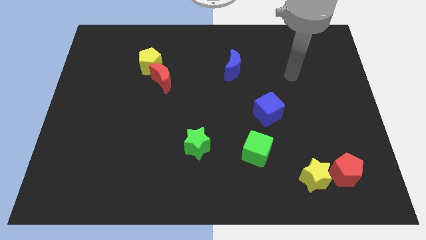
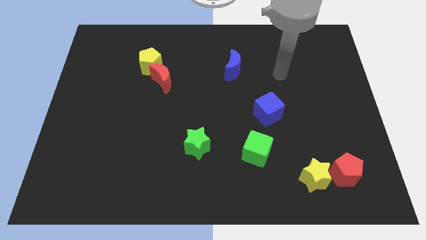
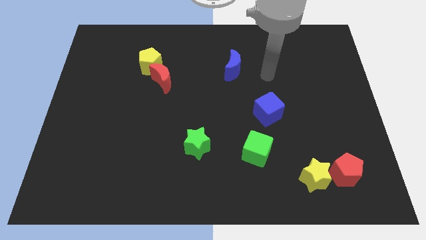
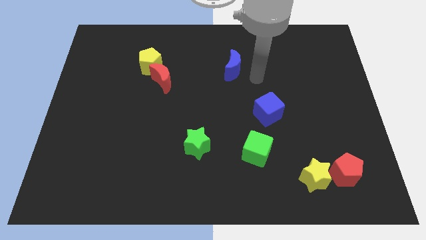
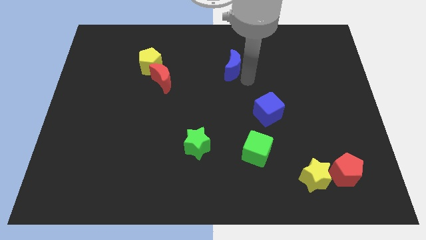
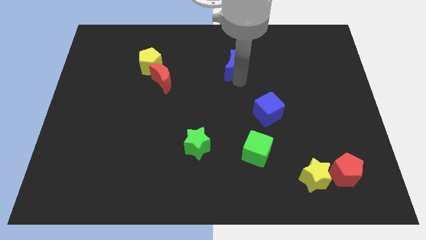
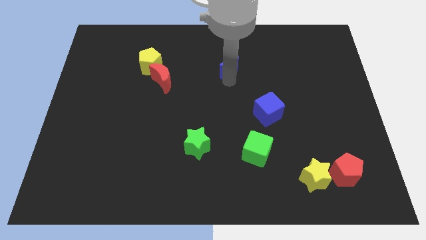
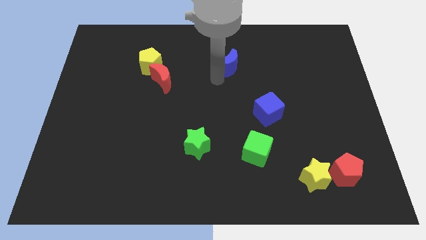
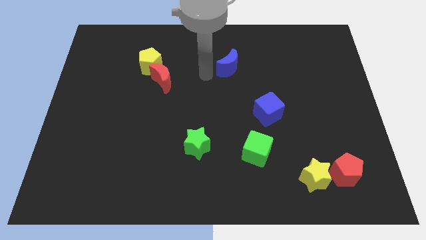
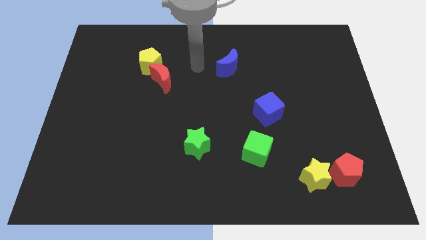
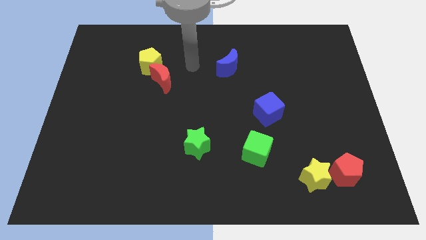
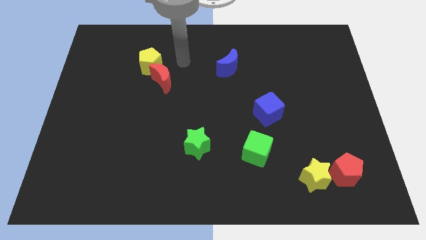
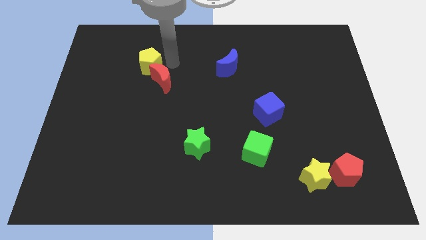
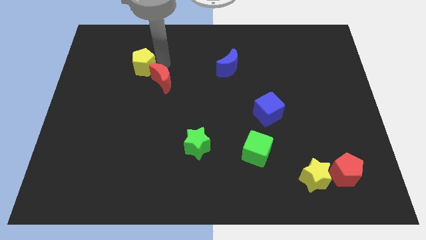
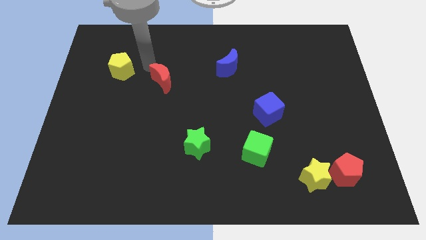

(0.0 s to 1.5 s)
pull the red moon apart from the yellow pentagon

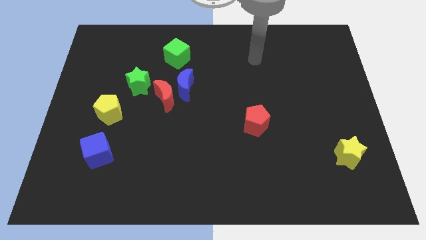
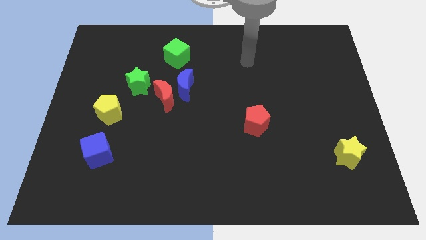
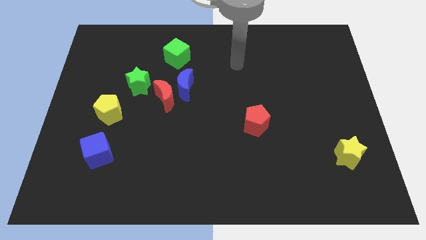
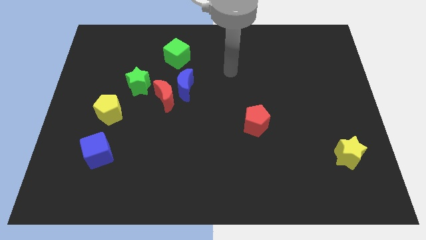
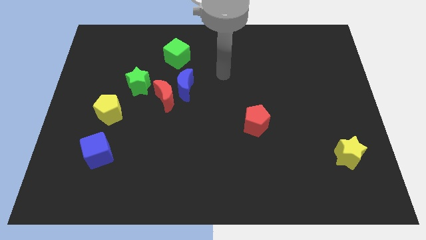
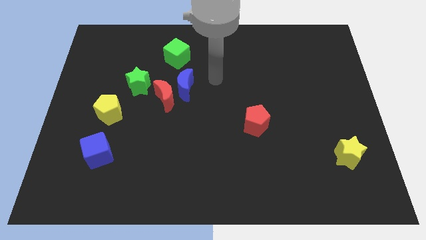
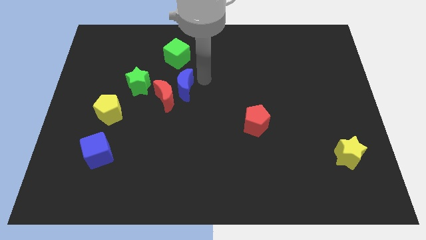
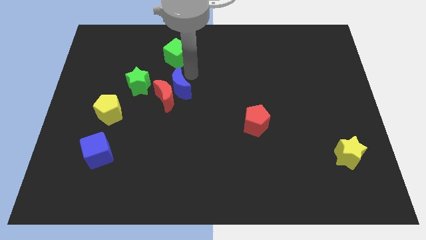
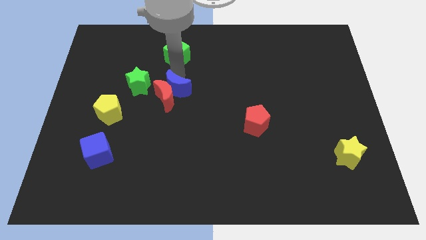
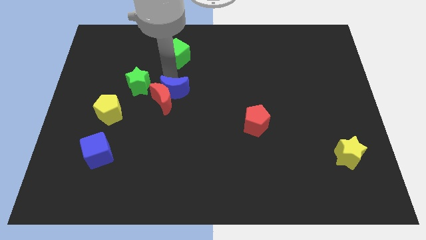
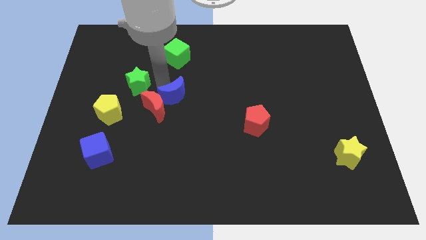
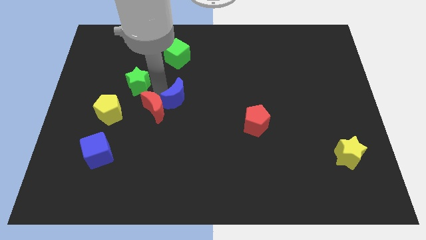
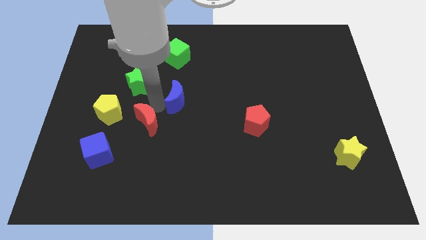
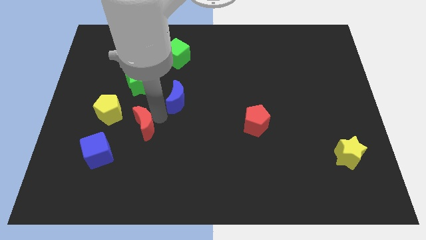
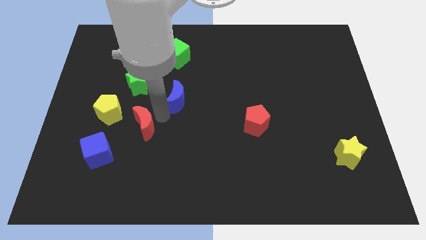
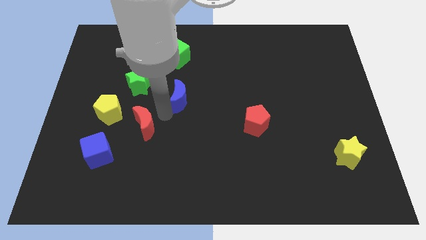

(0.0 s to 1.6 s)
move the blue moon away from the red moon

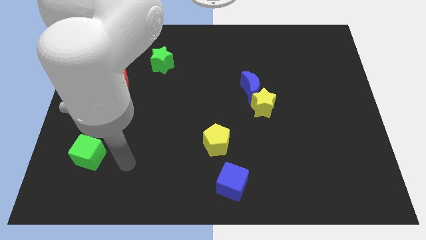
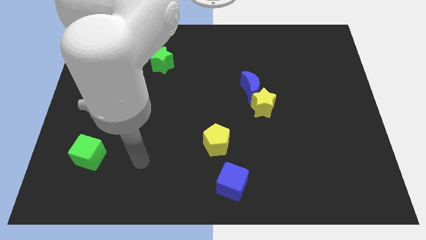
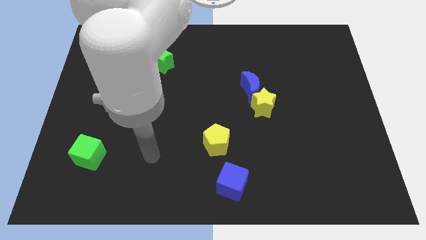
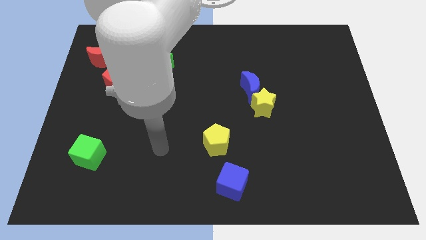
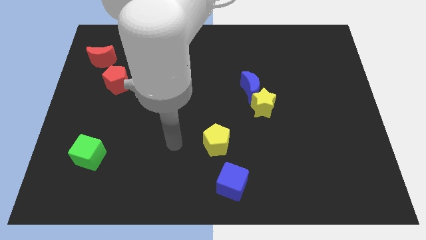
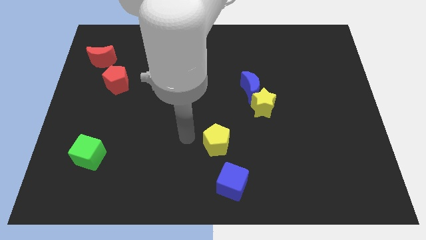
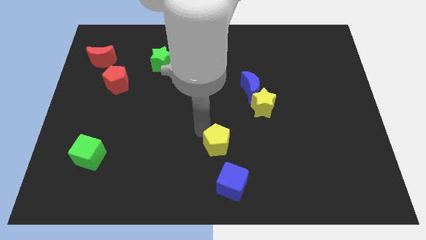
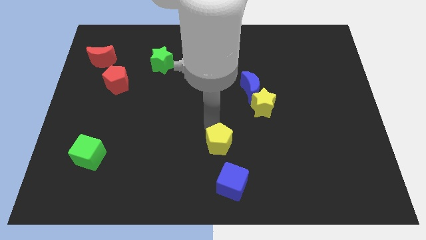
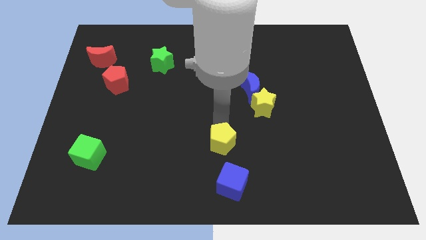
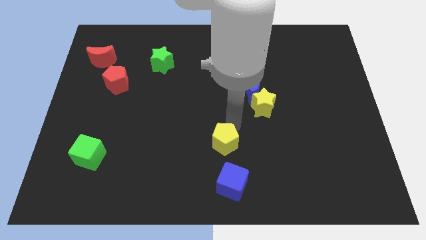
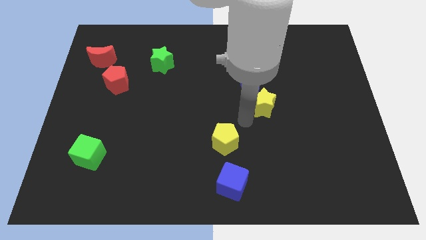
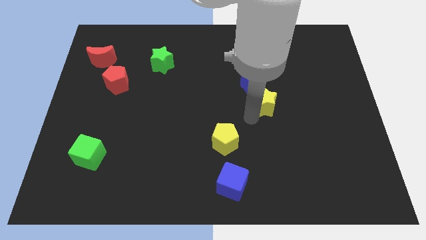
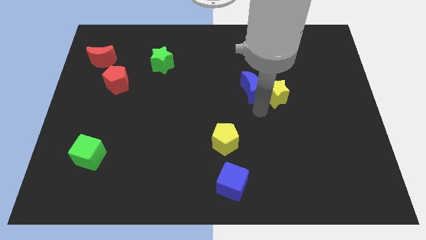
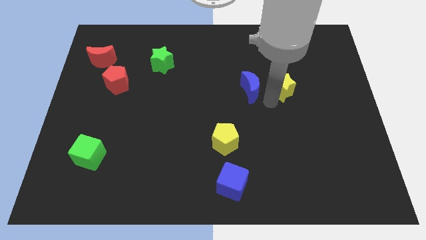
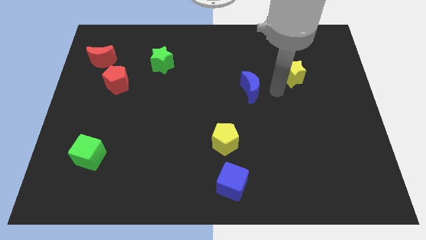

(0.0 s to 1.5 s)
pull the blue moon apart from the yellow star

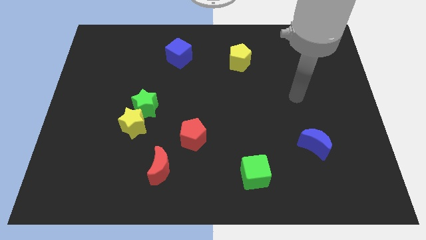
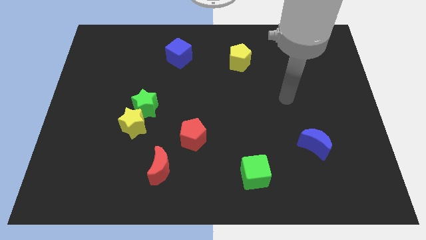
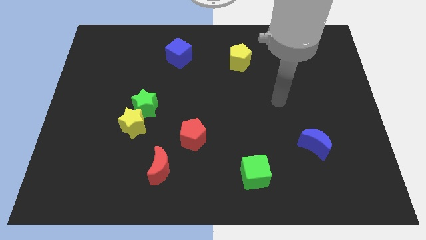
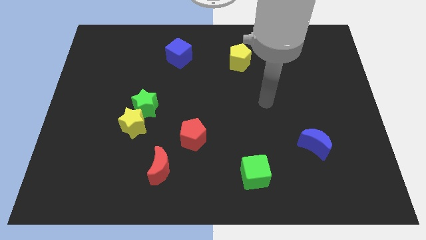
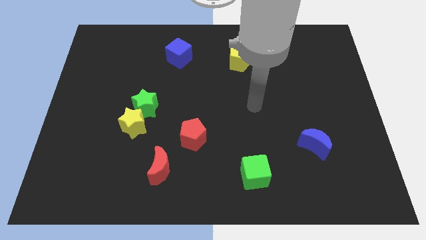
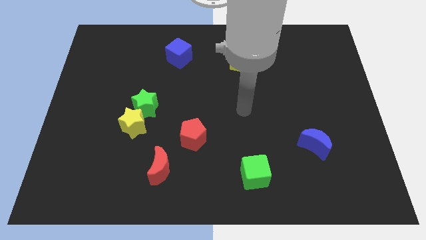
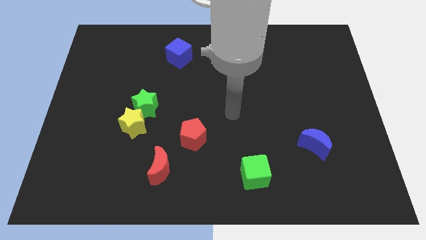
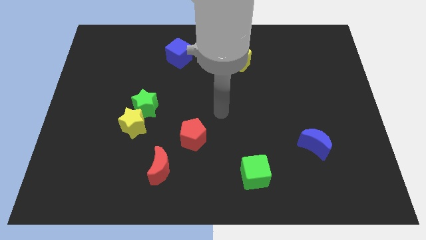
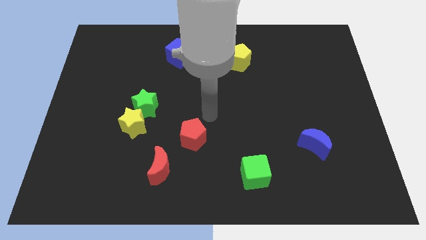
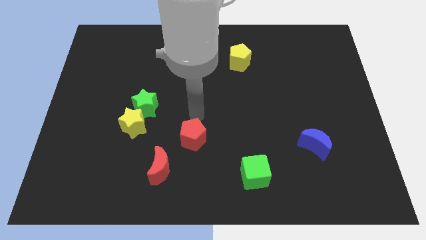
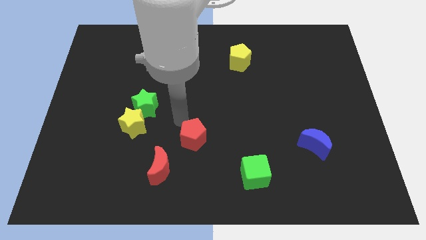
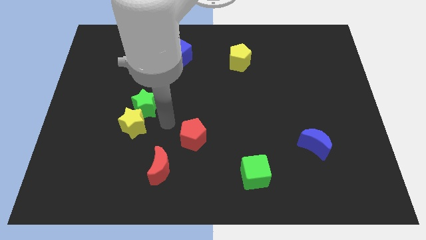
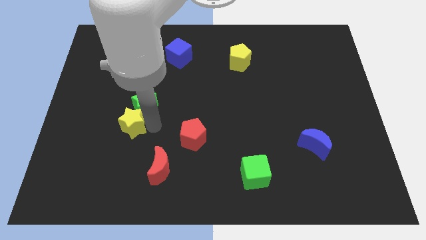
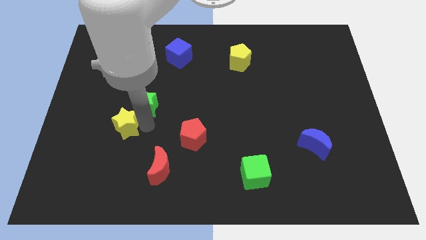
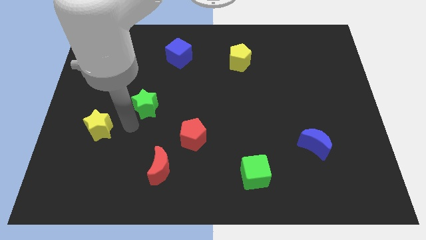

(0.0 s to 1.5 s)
pull the green star apart from the yellow star

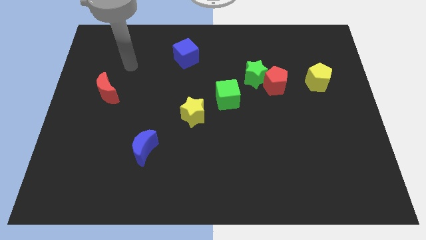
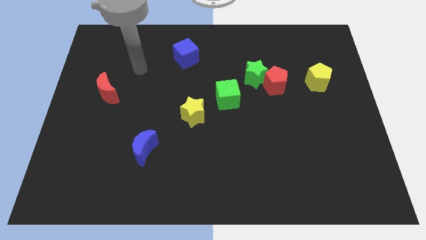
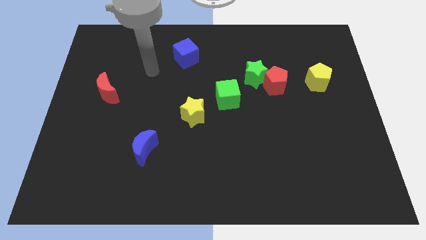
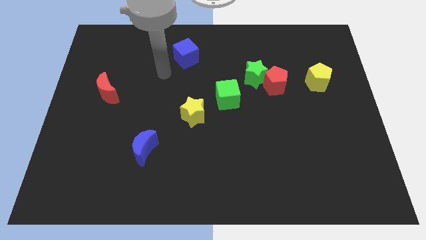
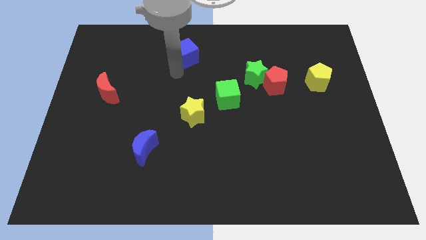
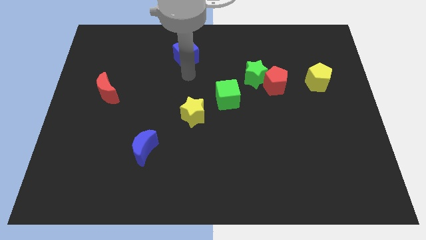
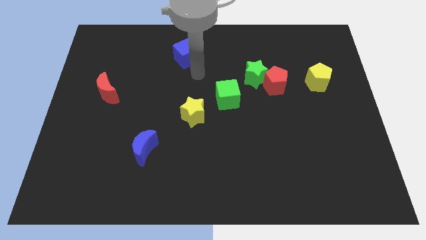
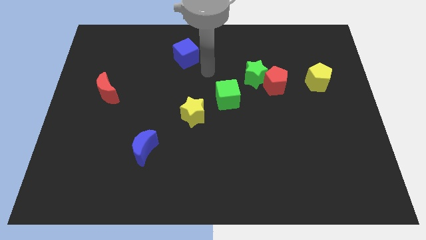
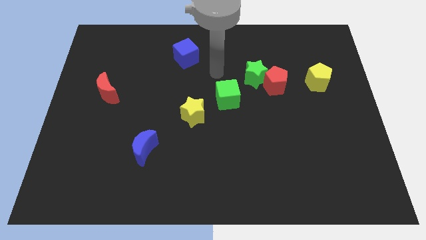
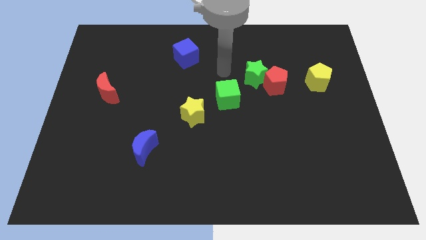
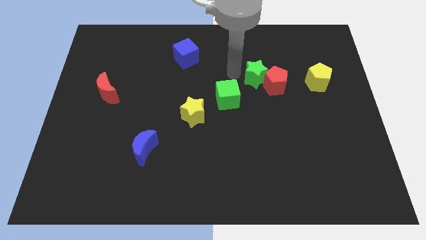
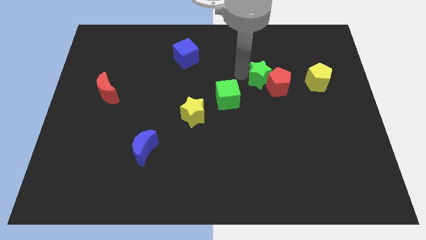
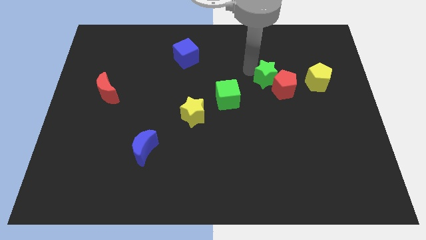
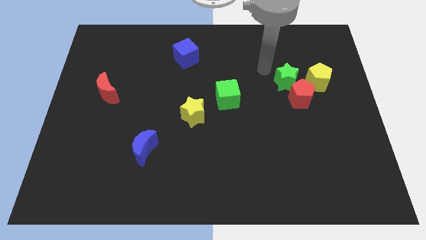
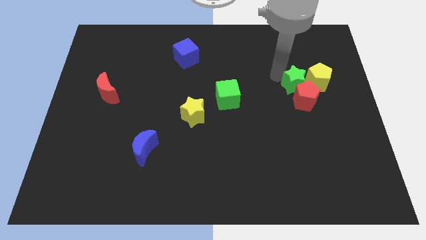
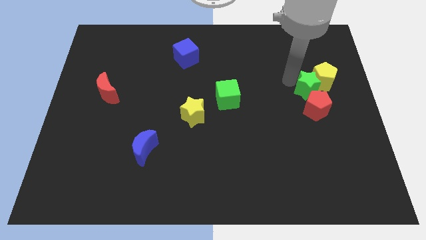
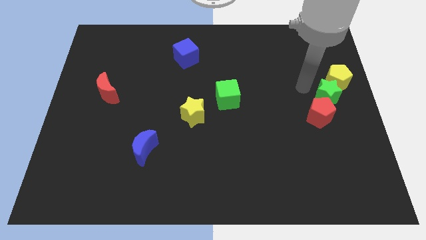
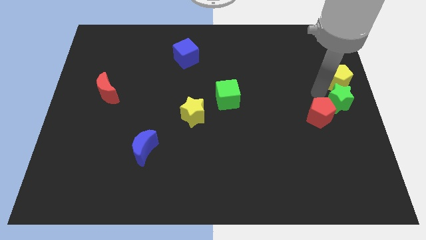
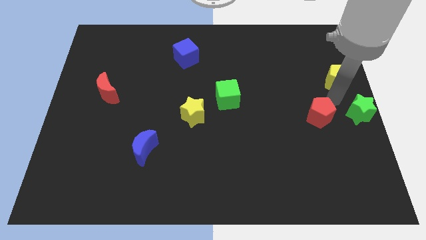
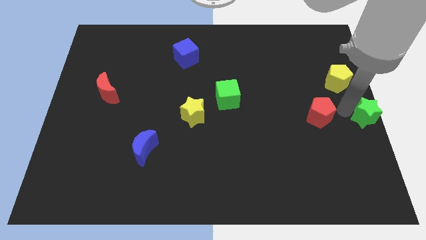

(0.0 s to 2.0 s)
separate the red pentagon from the green star

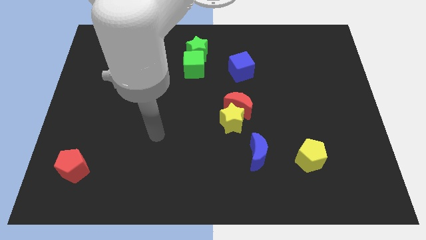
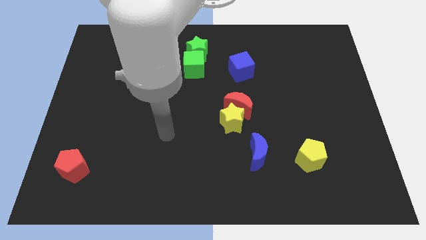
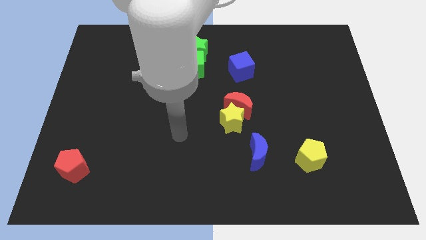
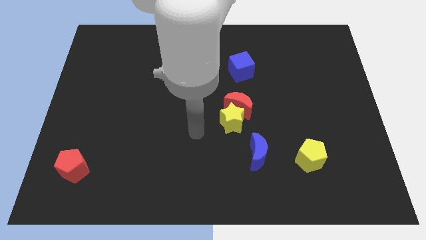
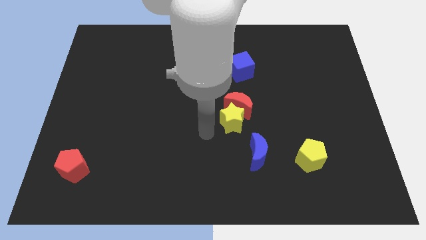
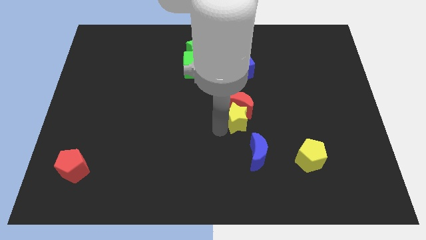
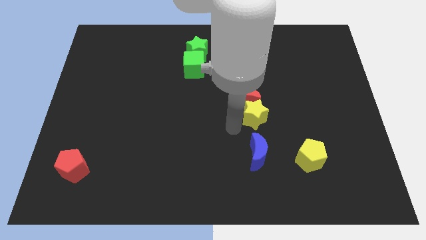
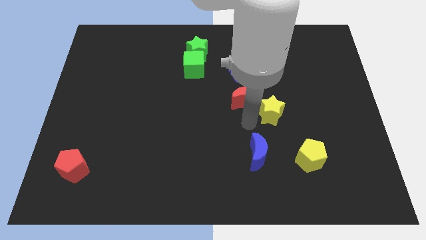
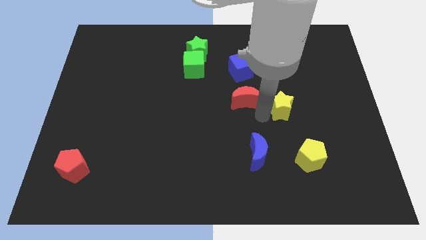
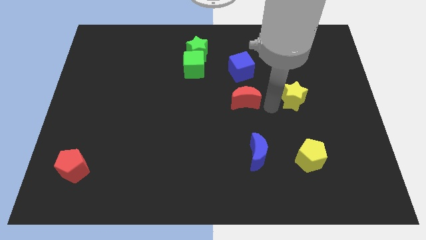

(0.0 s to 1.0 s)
separate the red moon from the yellow star
